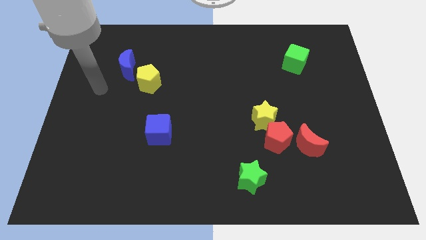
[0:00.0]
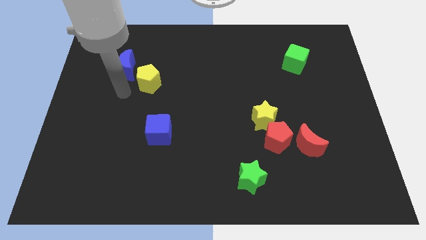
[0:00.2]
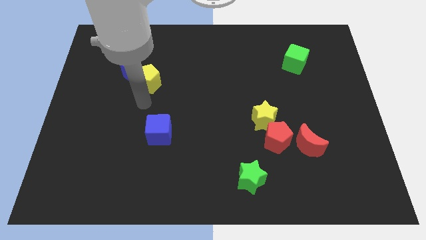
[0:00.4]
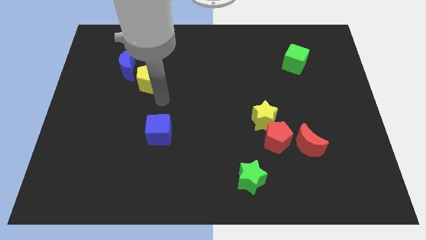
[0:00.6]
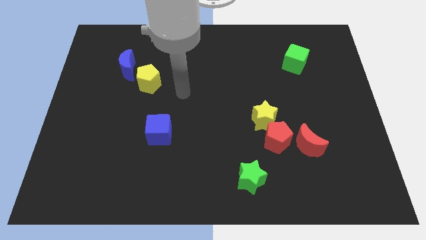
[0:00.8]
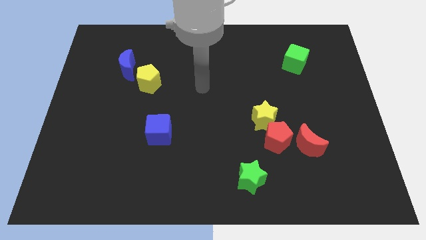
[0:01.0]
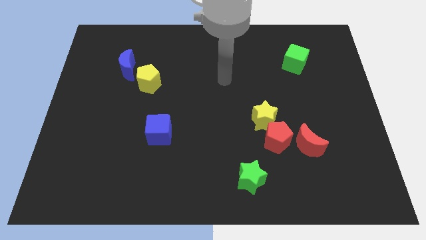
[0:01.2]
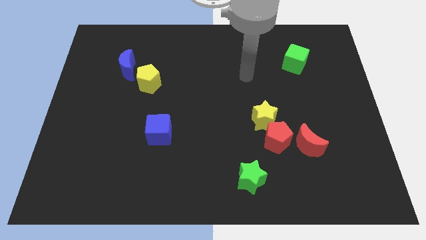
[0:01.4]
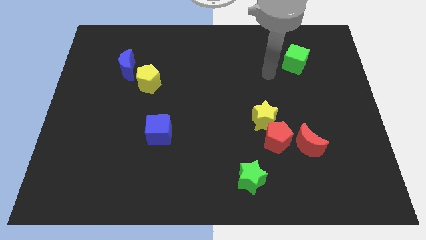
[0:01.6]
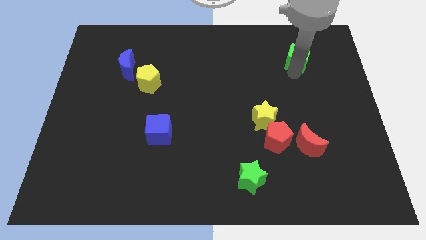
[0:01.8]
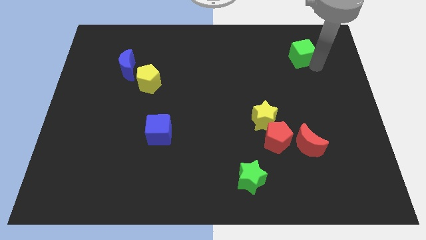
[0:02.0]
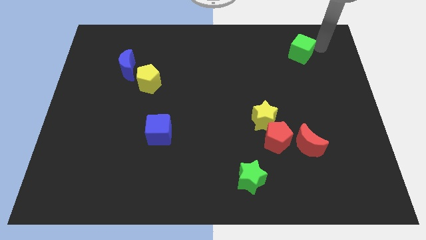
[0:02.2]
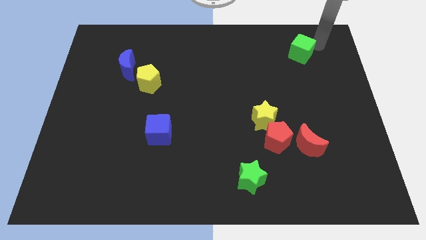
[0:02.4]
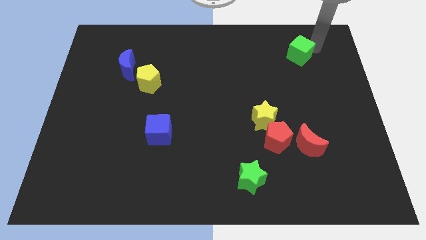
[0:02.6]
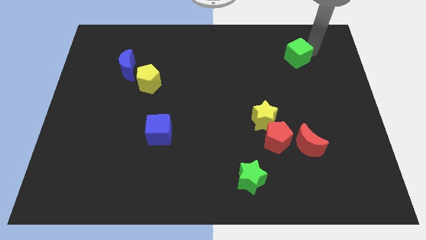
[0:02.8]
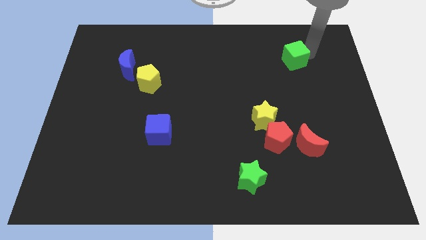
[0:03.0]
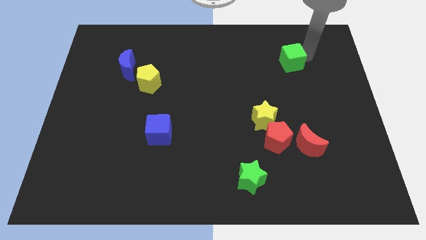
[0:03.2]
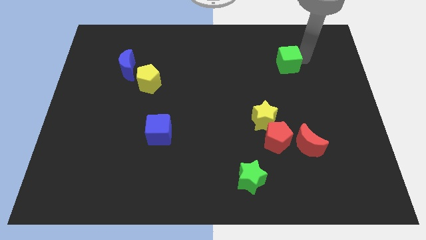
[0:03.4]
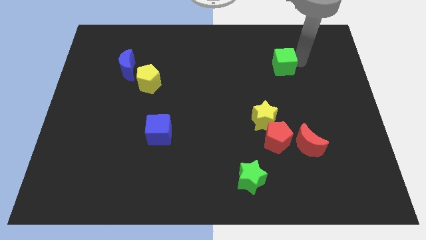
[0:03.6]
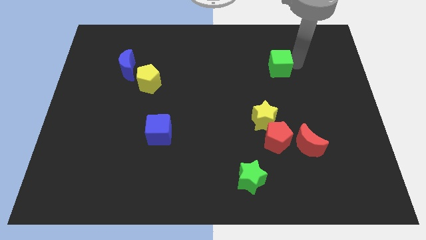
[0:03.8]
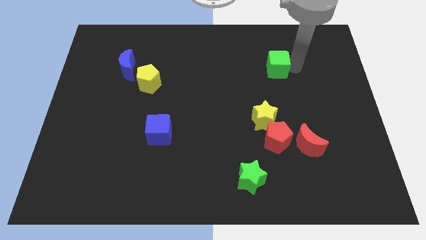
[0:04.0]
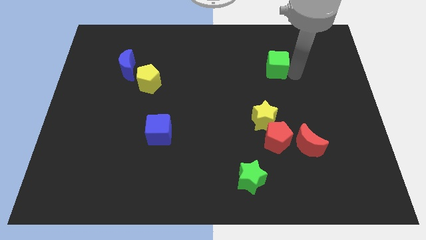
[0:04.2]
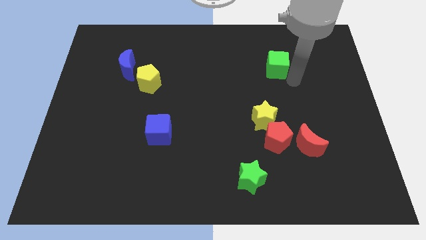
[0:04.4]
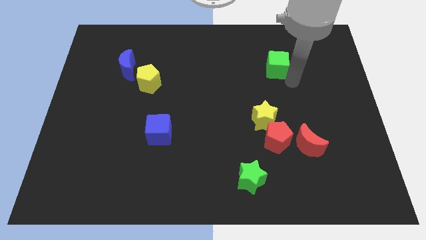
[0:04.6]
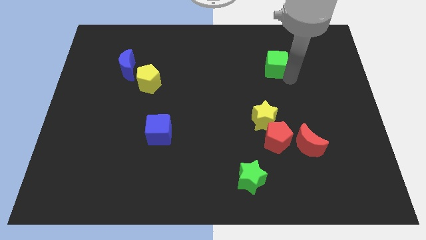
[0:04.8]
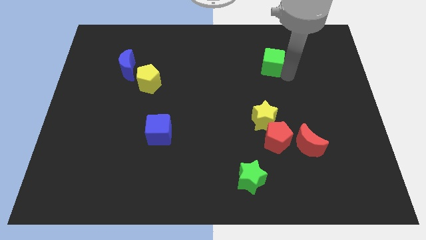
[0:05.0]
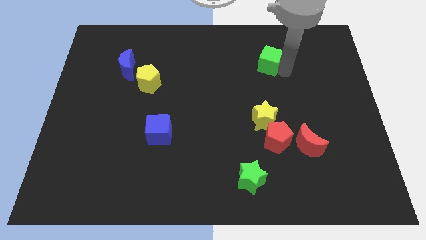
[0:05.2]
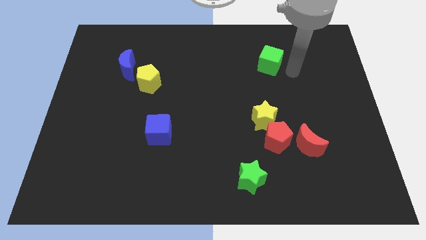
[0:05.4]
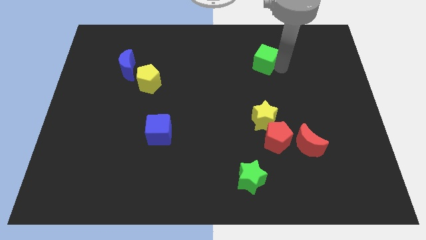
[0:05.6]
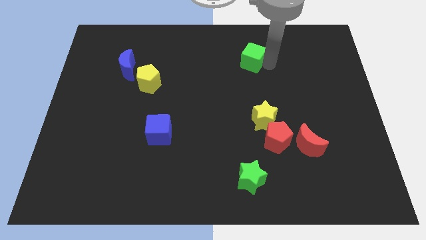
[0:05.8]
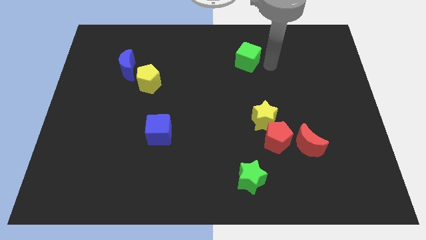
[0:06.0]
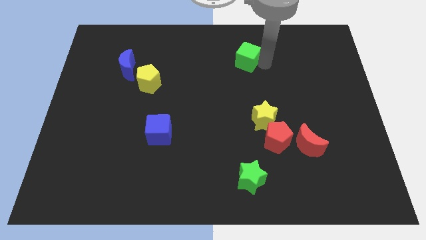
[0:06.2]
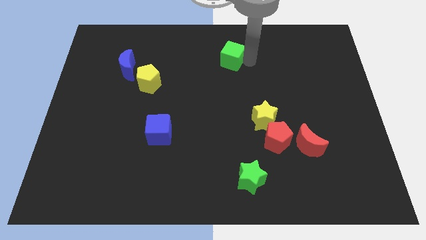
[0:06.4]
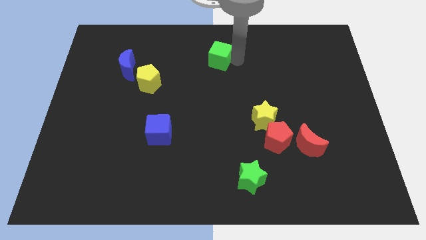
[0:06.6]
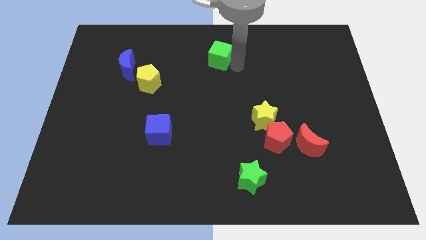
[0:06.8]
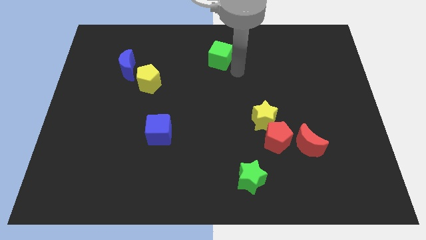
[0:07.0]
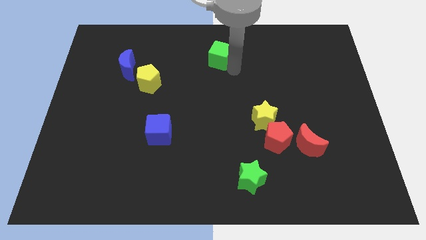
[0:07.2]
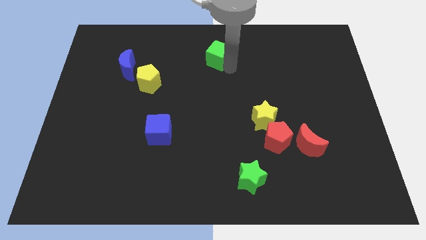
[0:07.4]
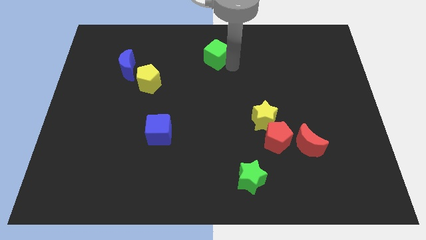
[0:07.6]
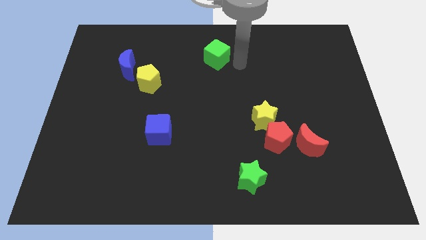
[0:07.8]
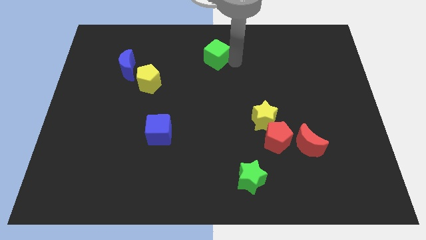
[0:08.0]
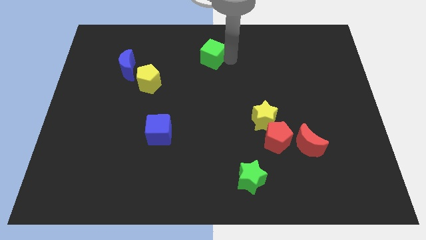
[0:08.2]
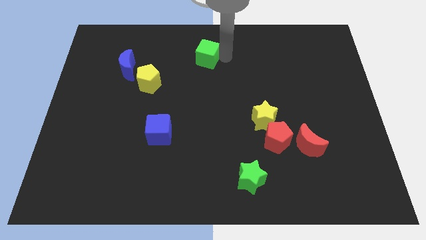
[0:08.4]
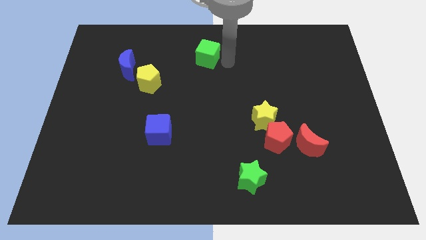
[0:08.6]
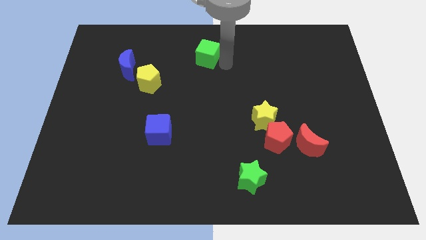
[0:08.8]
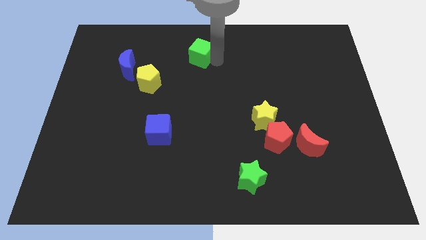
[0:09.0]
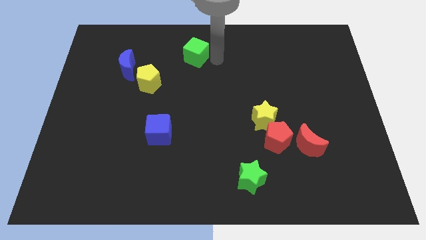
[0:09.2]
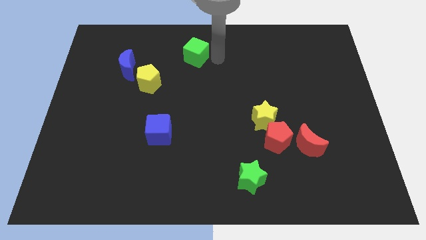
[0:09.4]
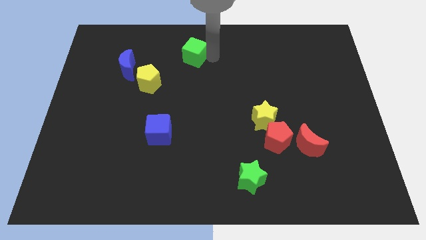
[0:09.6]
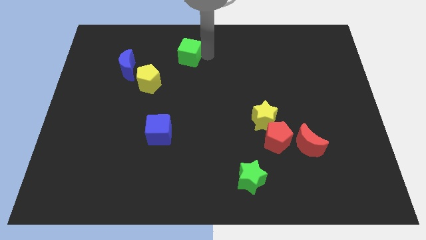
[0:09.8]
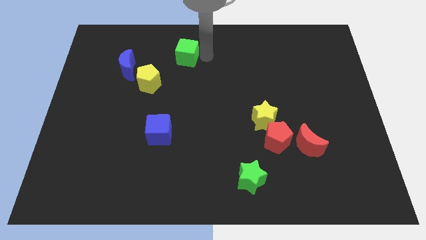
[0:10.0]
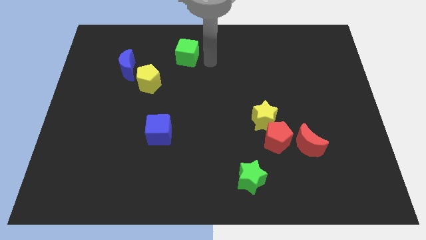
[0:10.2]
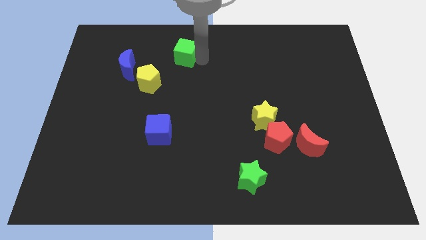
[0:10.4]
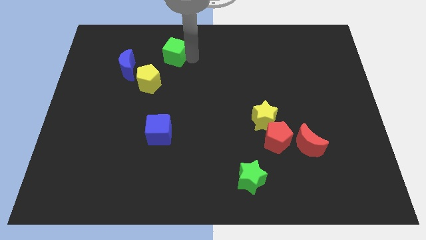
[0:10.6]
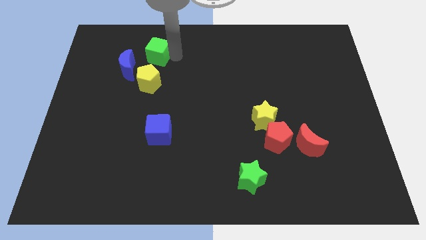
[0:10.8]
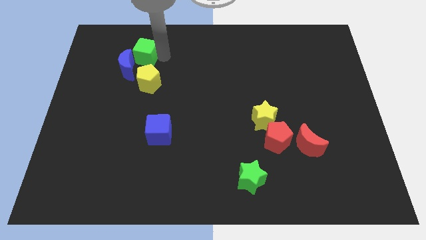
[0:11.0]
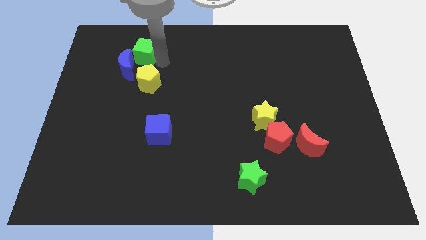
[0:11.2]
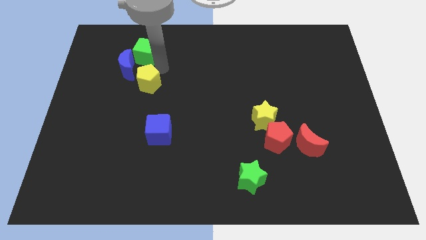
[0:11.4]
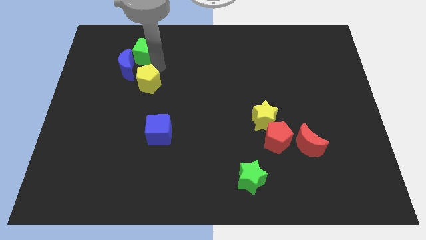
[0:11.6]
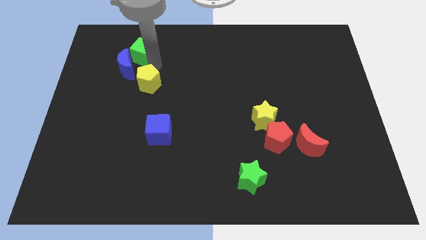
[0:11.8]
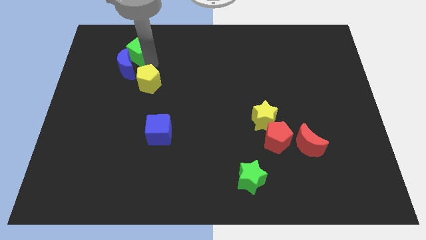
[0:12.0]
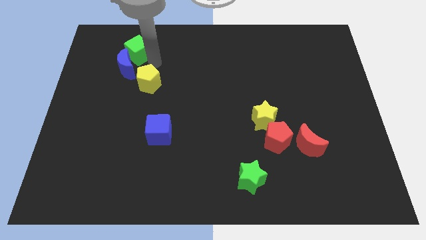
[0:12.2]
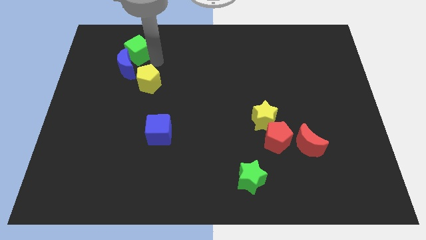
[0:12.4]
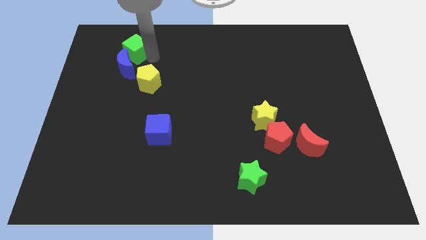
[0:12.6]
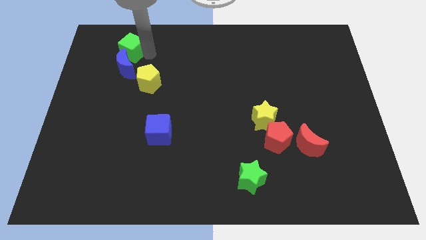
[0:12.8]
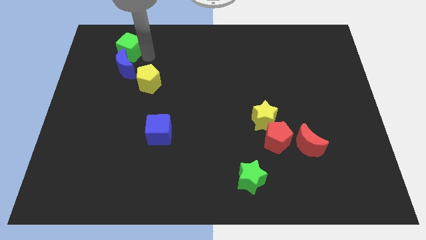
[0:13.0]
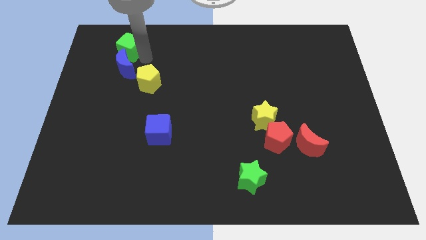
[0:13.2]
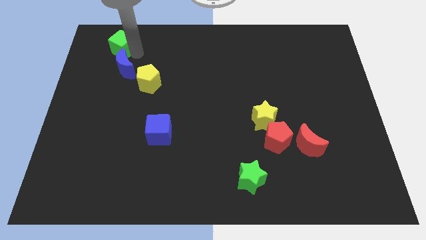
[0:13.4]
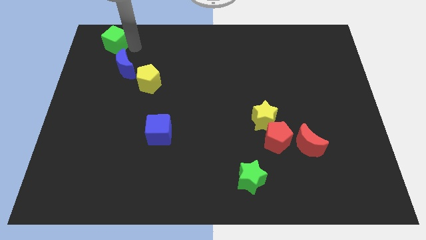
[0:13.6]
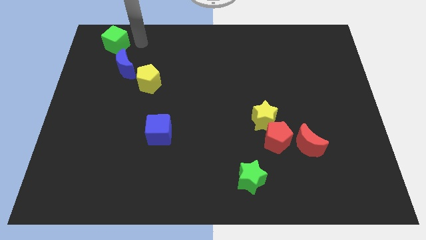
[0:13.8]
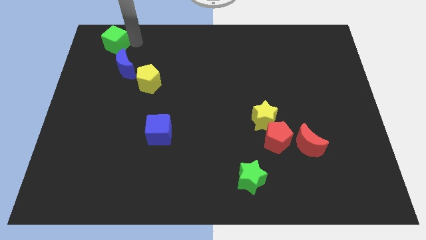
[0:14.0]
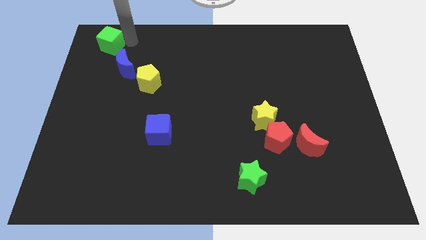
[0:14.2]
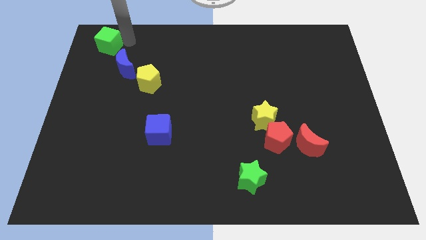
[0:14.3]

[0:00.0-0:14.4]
move the green cube to the top left of the board
